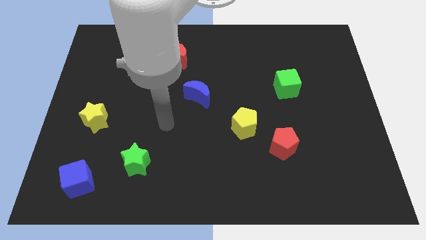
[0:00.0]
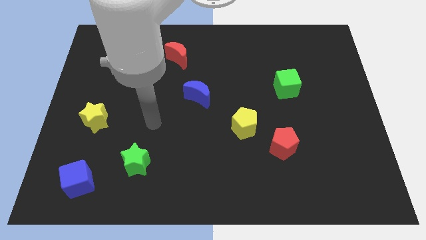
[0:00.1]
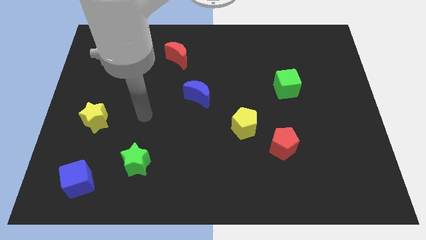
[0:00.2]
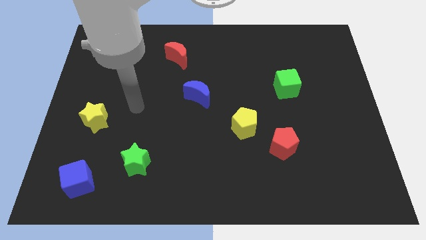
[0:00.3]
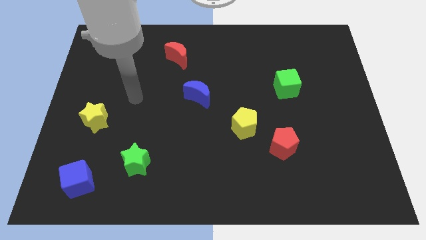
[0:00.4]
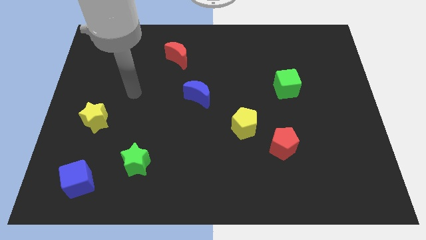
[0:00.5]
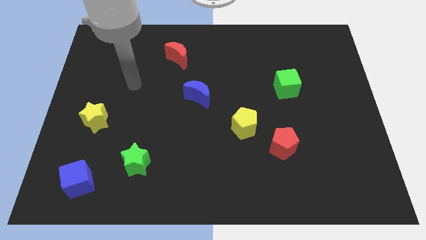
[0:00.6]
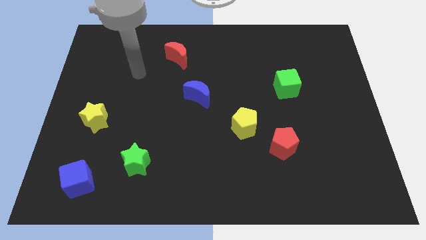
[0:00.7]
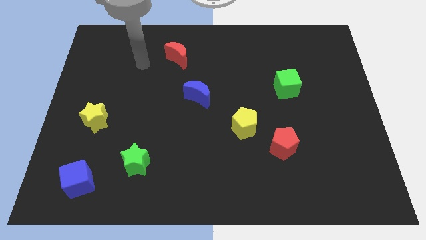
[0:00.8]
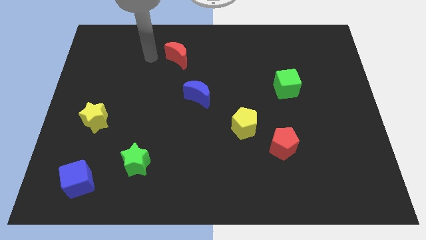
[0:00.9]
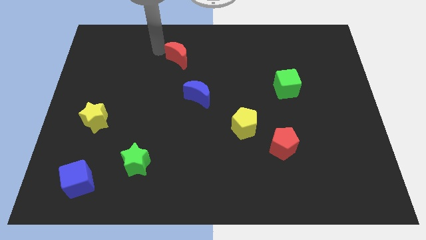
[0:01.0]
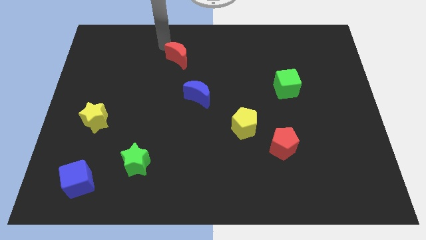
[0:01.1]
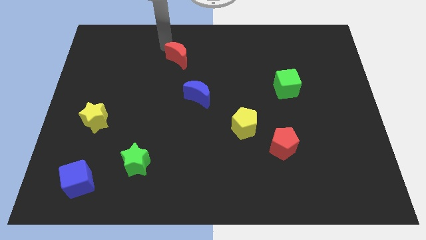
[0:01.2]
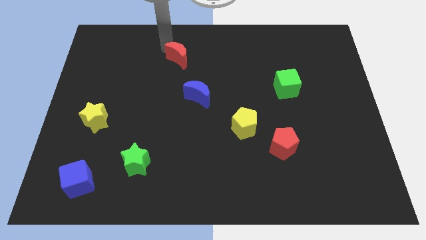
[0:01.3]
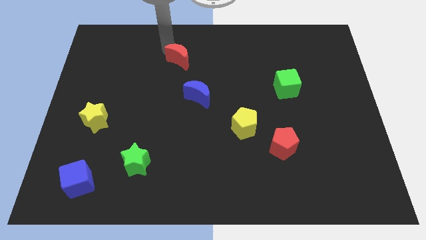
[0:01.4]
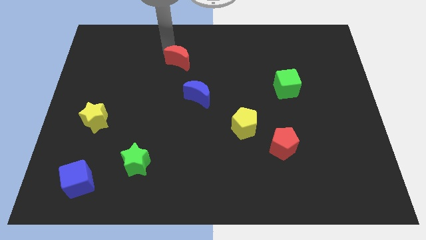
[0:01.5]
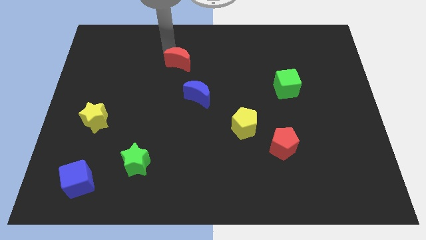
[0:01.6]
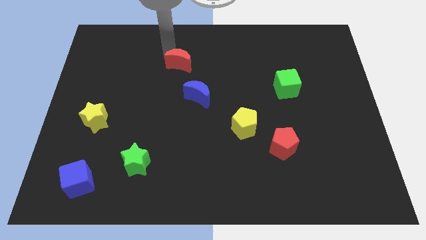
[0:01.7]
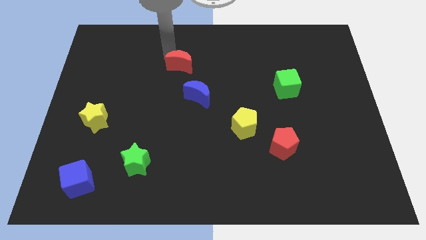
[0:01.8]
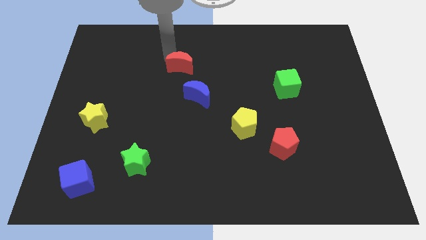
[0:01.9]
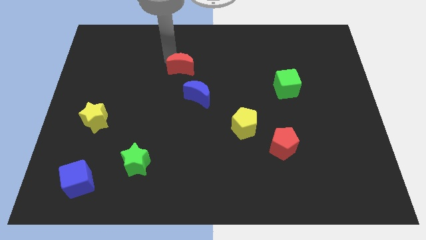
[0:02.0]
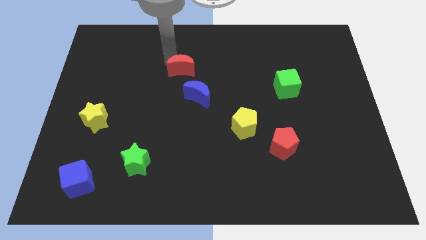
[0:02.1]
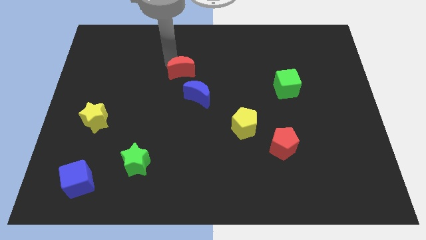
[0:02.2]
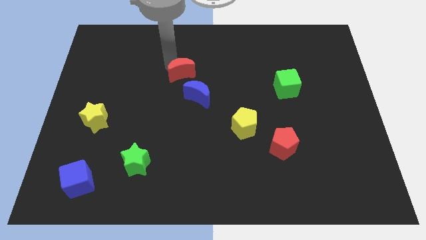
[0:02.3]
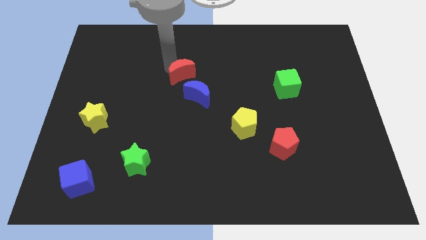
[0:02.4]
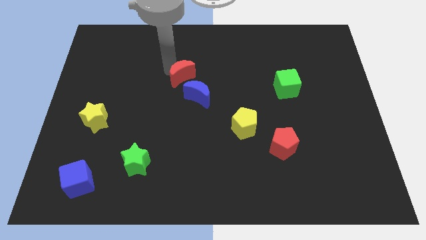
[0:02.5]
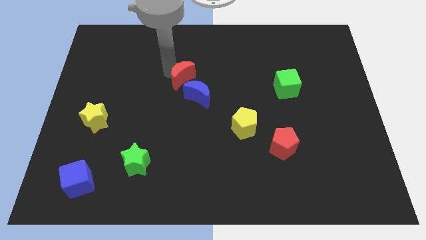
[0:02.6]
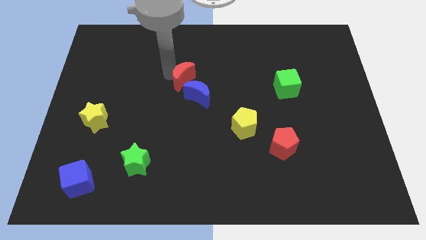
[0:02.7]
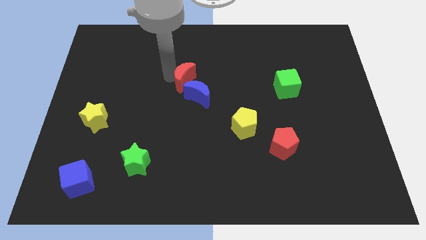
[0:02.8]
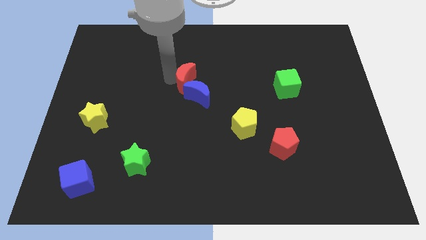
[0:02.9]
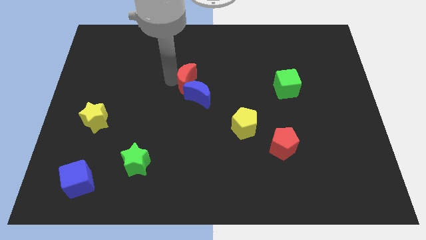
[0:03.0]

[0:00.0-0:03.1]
move the red moon downwards and then right slightly

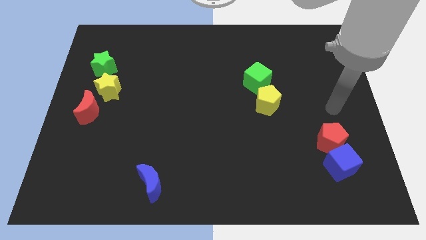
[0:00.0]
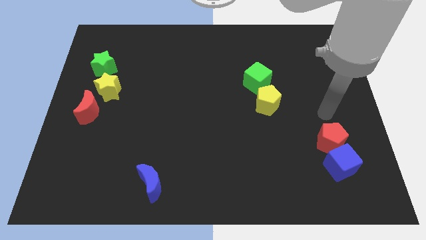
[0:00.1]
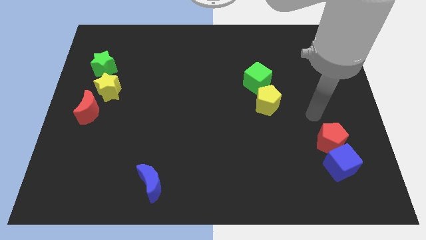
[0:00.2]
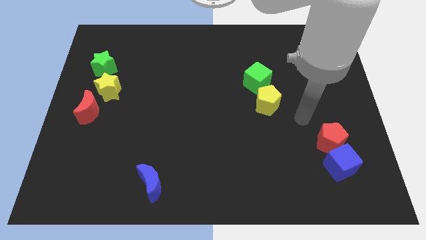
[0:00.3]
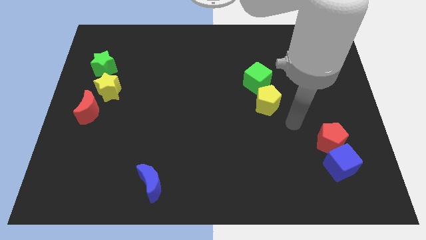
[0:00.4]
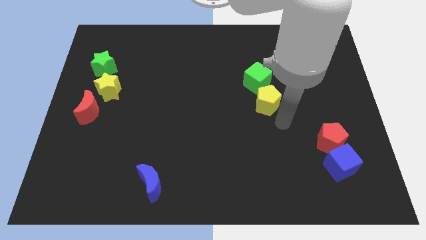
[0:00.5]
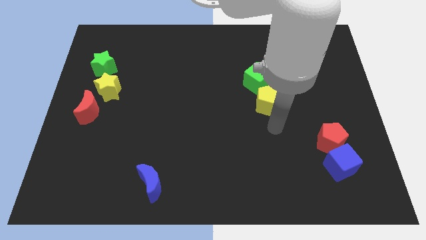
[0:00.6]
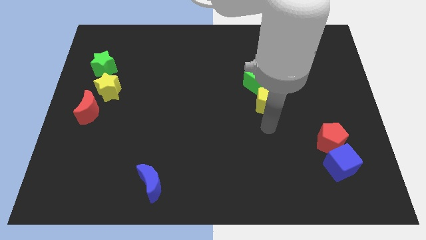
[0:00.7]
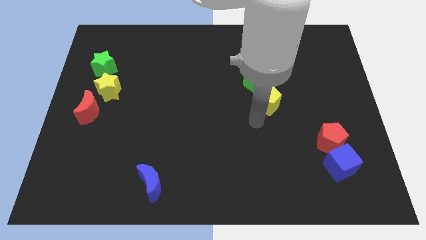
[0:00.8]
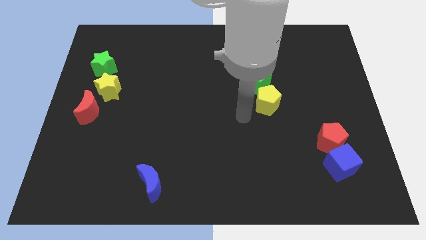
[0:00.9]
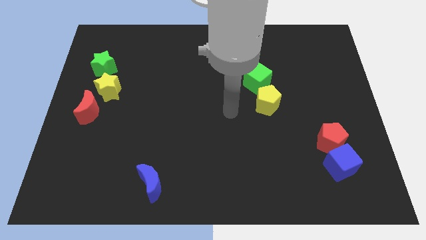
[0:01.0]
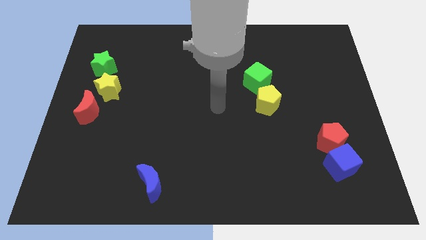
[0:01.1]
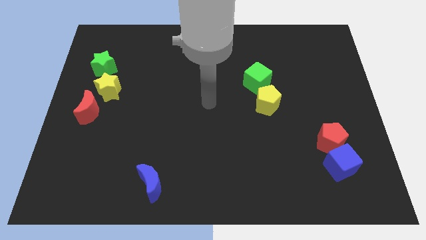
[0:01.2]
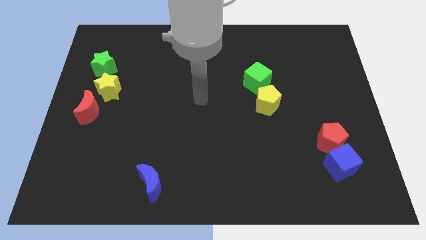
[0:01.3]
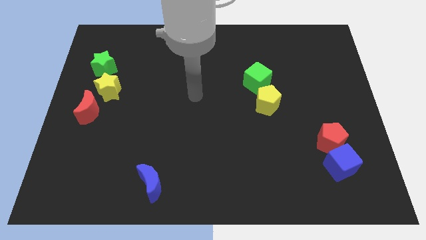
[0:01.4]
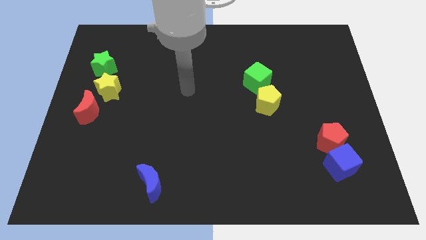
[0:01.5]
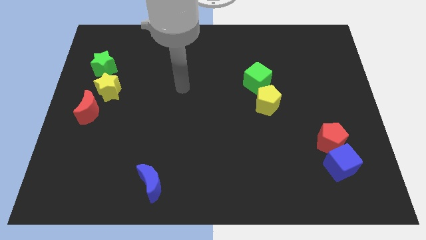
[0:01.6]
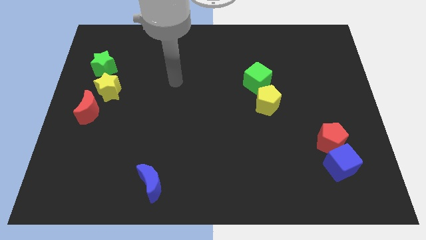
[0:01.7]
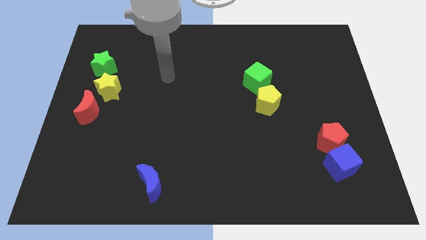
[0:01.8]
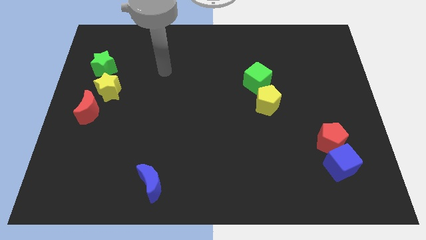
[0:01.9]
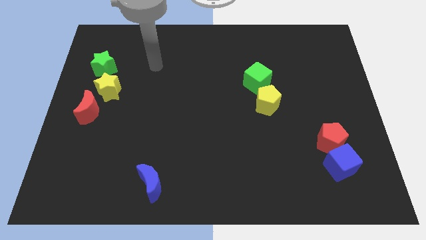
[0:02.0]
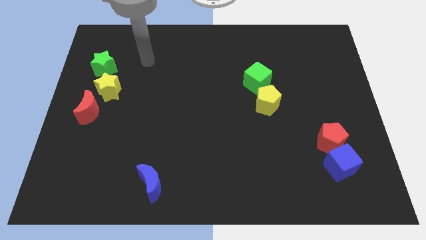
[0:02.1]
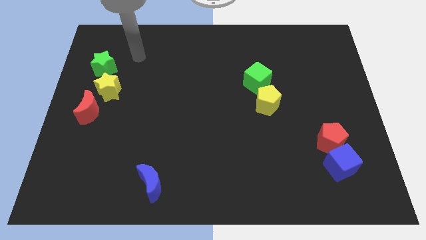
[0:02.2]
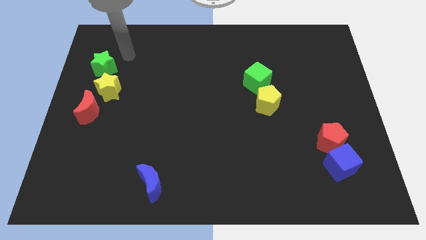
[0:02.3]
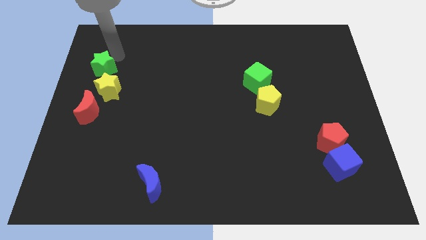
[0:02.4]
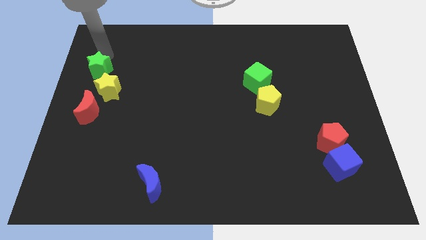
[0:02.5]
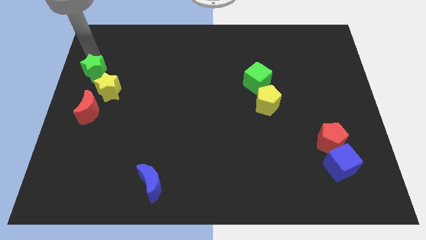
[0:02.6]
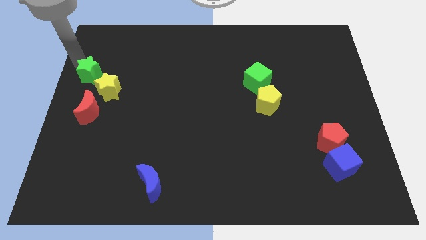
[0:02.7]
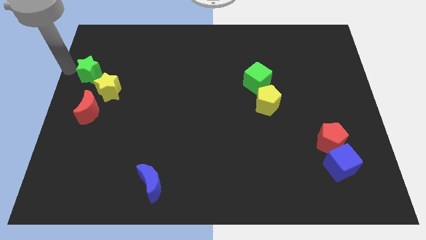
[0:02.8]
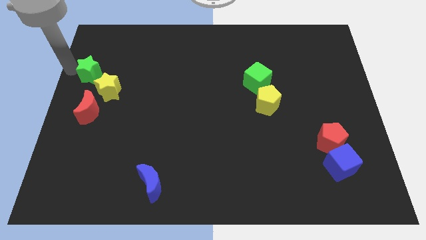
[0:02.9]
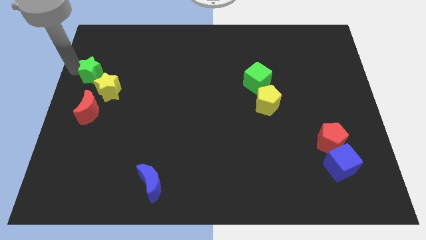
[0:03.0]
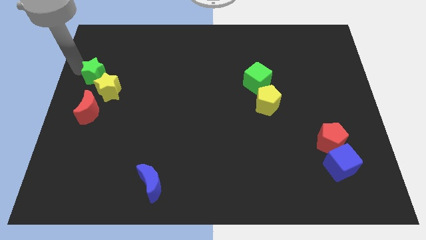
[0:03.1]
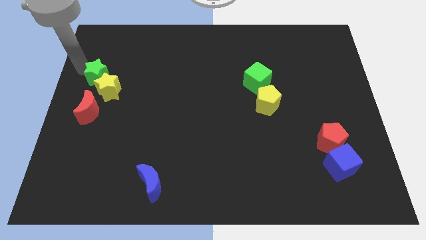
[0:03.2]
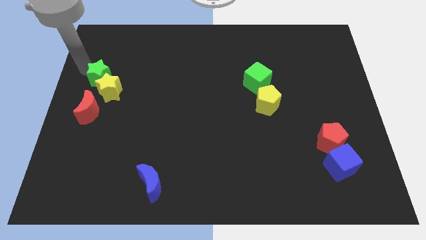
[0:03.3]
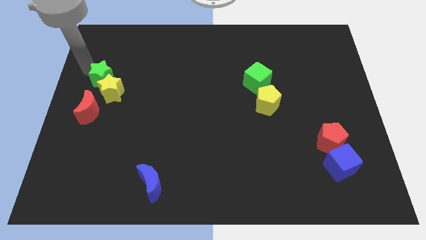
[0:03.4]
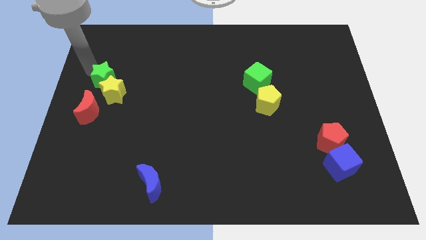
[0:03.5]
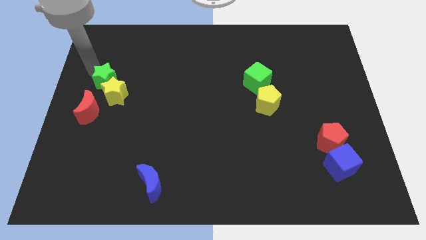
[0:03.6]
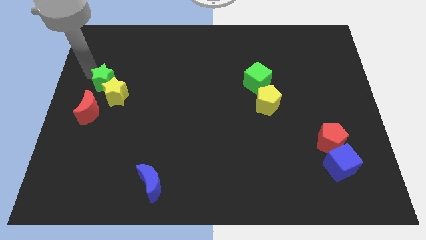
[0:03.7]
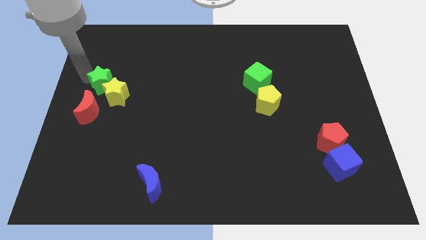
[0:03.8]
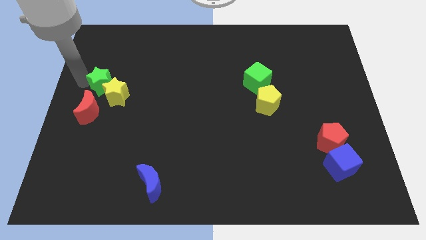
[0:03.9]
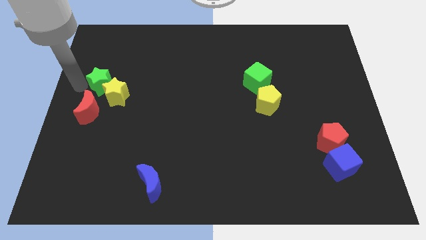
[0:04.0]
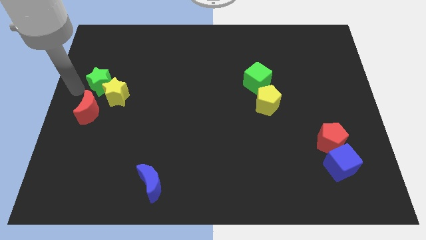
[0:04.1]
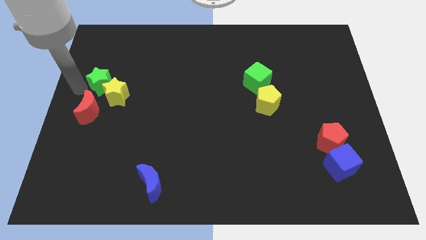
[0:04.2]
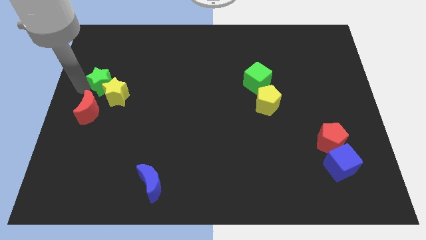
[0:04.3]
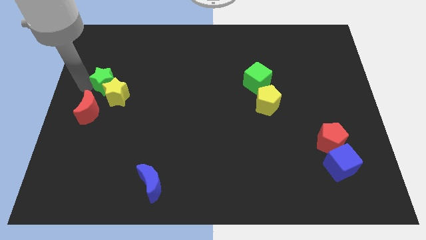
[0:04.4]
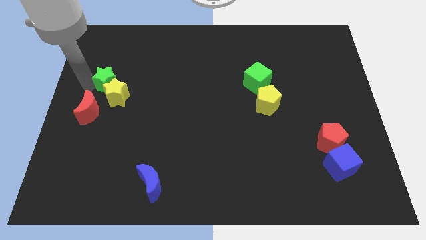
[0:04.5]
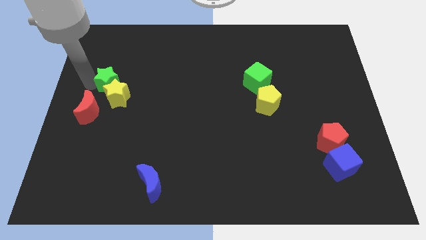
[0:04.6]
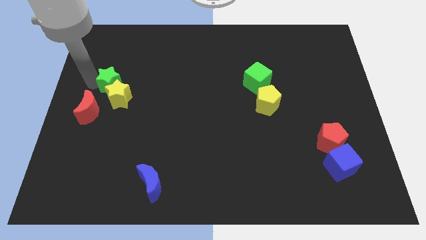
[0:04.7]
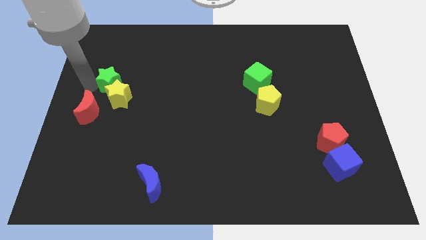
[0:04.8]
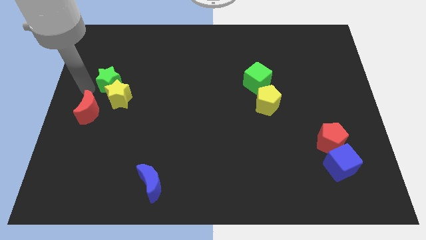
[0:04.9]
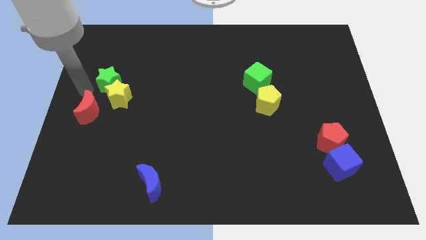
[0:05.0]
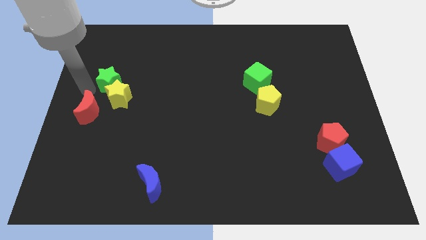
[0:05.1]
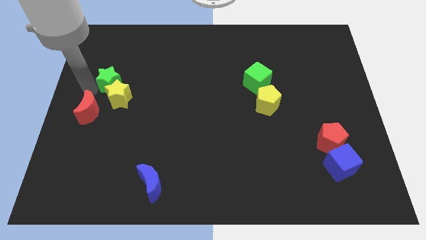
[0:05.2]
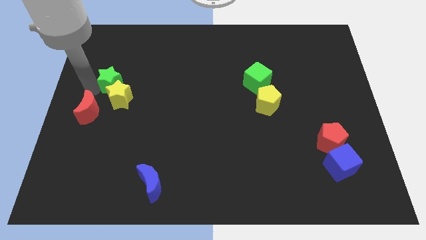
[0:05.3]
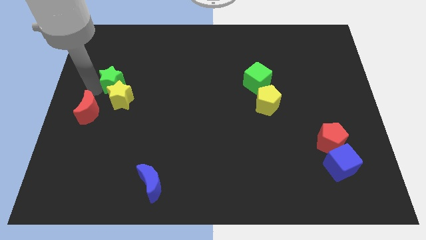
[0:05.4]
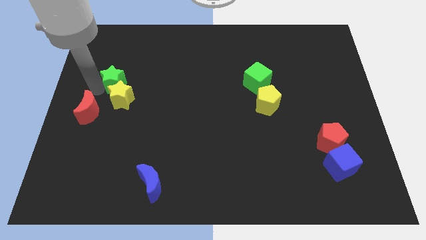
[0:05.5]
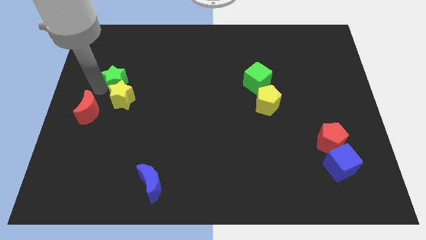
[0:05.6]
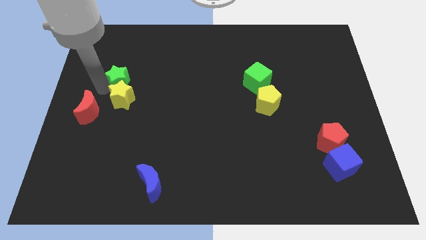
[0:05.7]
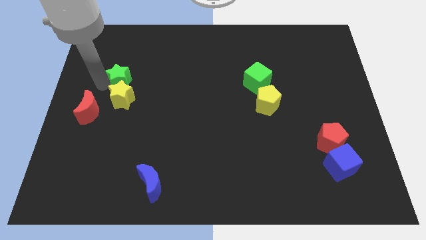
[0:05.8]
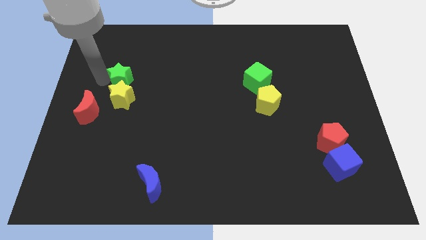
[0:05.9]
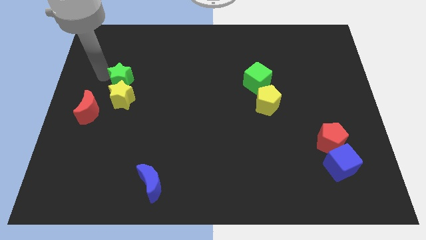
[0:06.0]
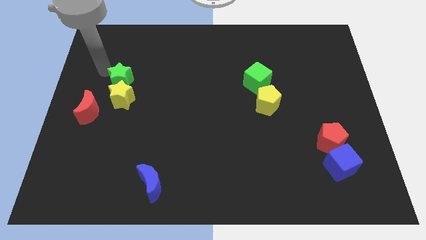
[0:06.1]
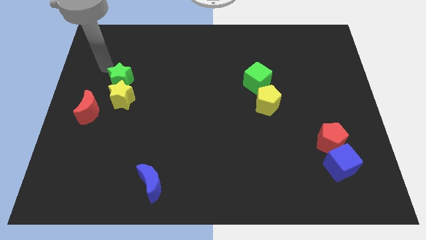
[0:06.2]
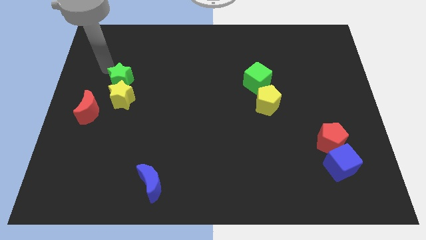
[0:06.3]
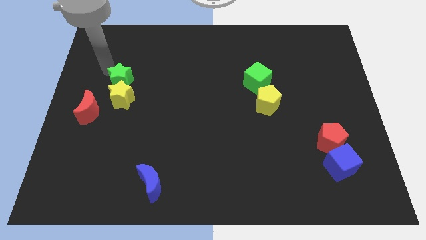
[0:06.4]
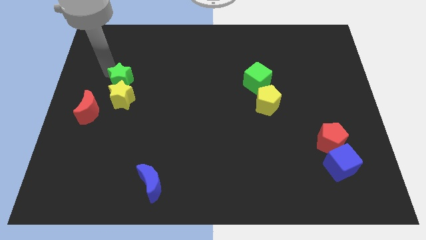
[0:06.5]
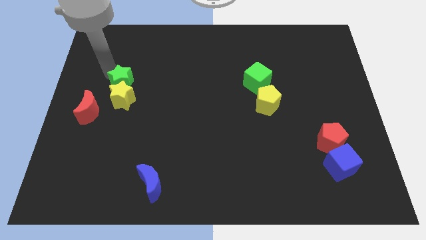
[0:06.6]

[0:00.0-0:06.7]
slightly slide the green star downwards and then right
